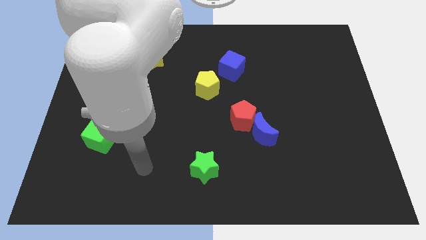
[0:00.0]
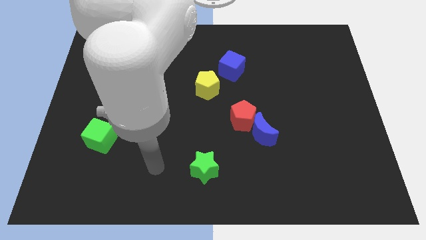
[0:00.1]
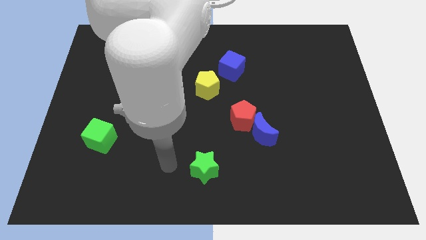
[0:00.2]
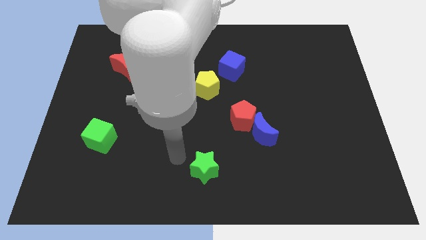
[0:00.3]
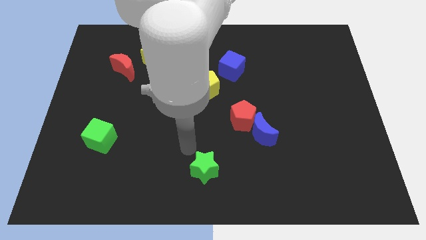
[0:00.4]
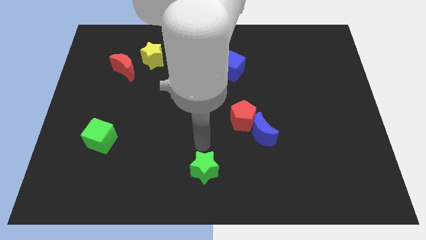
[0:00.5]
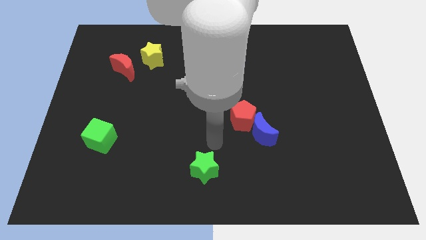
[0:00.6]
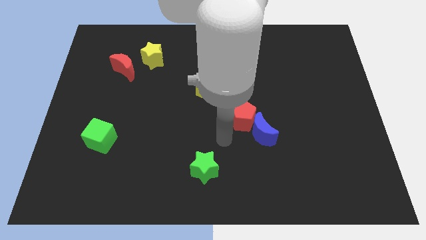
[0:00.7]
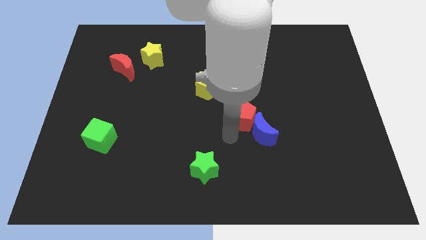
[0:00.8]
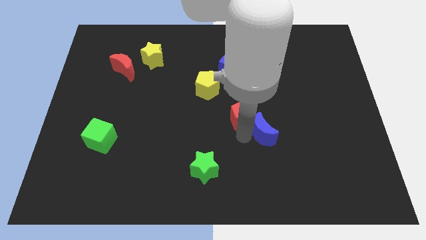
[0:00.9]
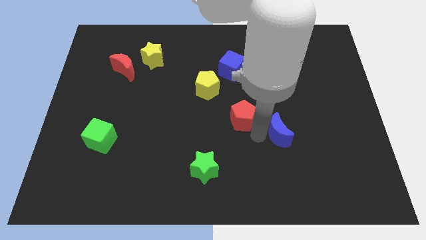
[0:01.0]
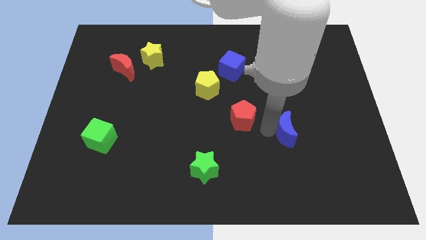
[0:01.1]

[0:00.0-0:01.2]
pull the red pentagon apart from the blue moon

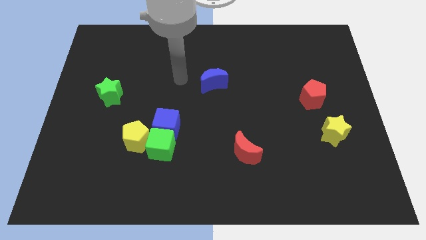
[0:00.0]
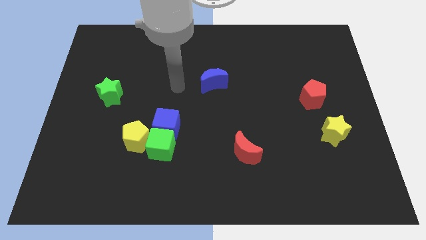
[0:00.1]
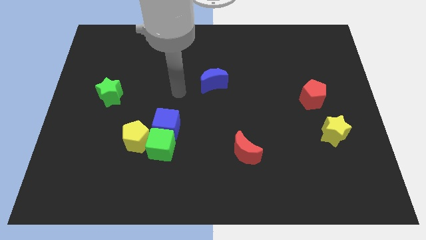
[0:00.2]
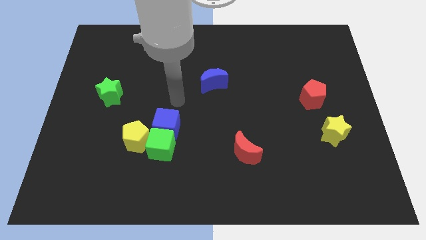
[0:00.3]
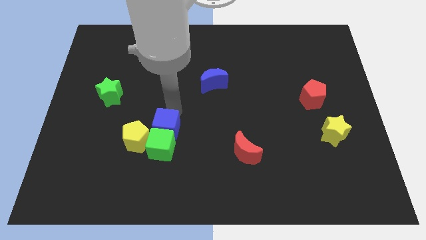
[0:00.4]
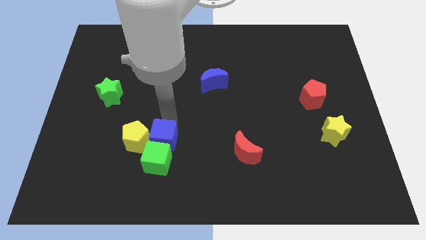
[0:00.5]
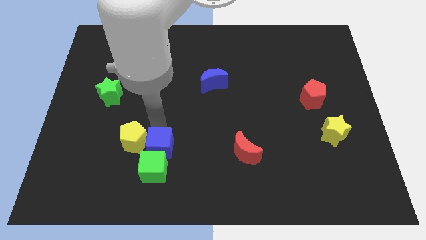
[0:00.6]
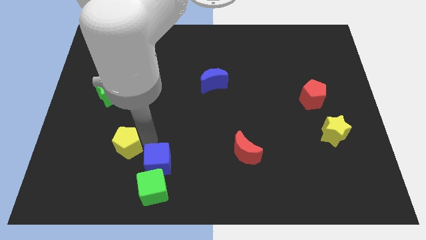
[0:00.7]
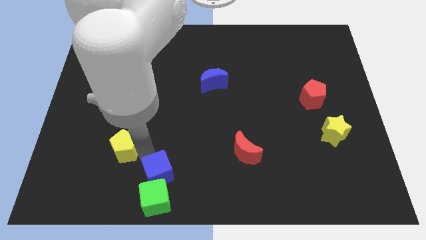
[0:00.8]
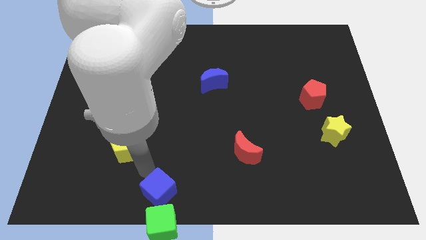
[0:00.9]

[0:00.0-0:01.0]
pull the green cube apart from the blue cube and yellow pentagon

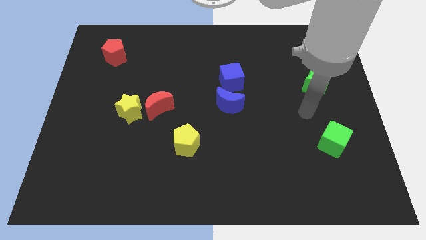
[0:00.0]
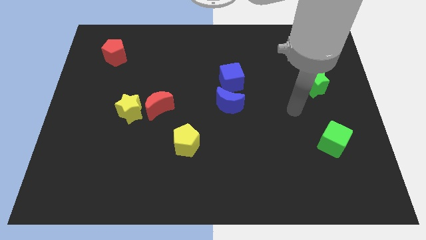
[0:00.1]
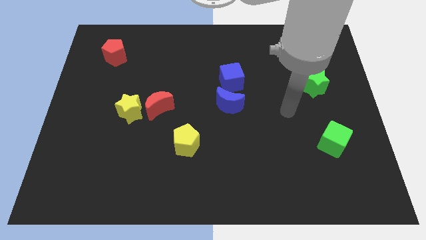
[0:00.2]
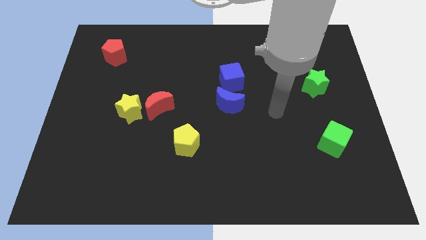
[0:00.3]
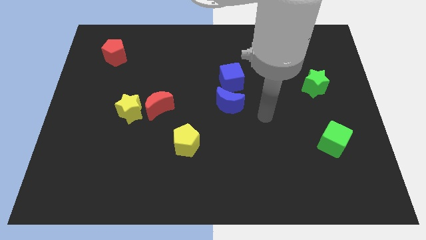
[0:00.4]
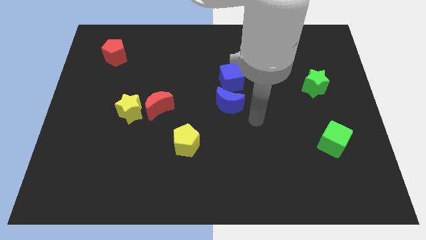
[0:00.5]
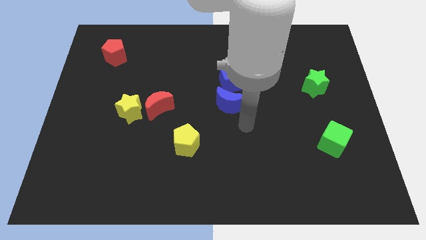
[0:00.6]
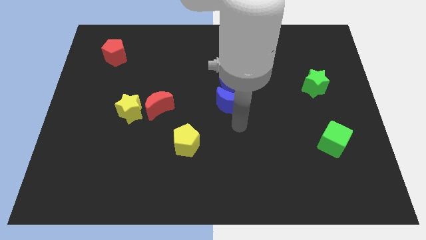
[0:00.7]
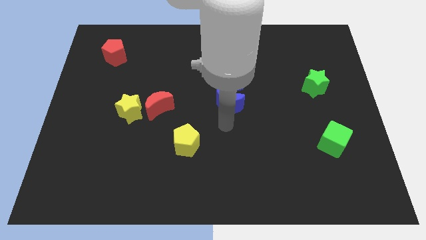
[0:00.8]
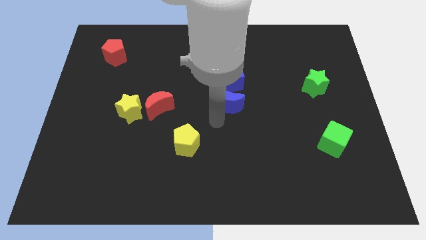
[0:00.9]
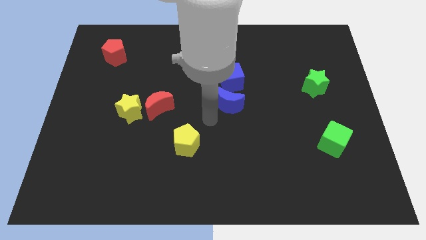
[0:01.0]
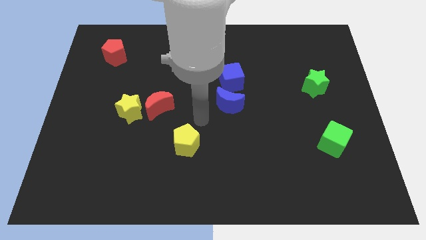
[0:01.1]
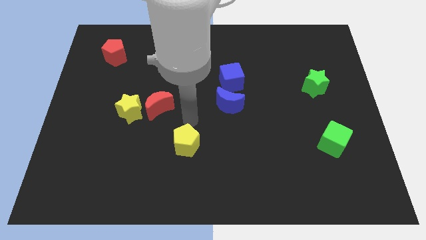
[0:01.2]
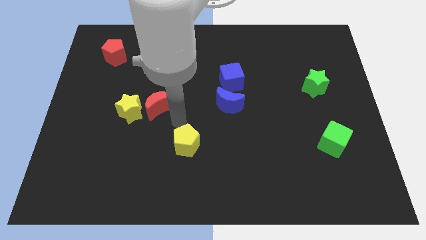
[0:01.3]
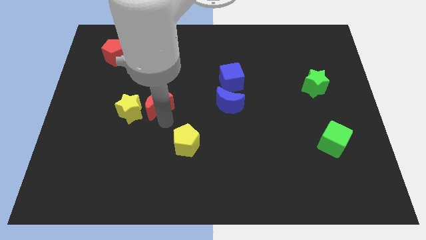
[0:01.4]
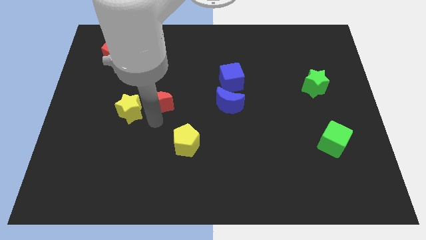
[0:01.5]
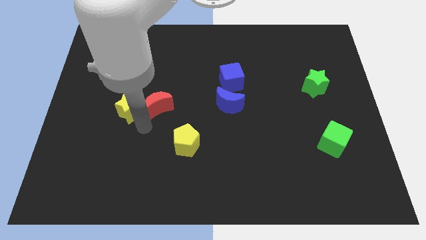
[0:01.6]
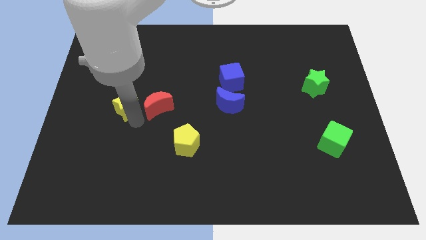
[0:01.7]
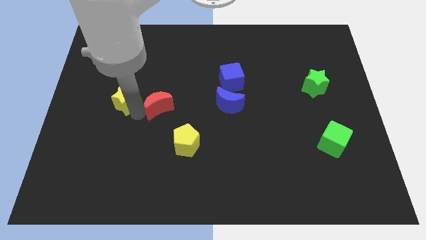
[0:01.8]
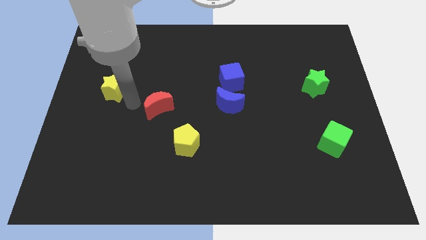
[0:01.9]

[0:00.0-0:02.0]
pull the red moon apart from the yellow star

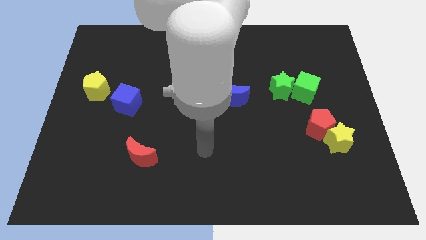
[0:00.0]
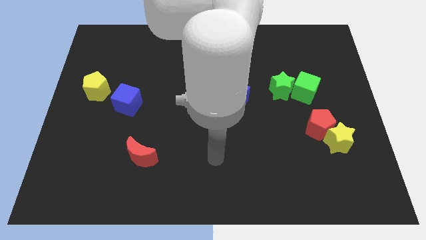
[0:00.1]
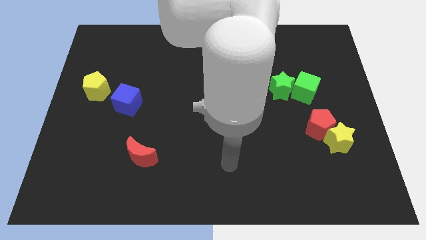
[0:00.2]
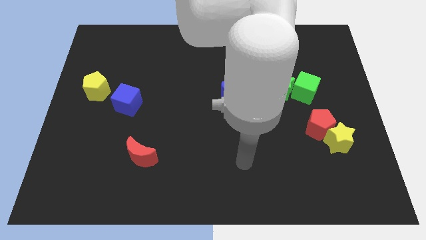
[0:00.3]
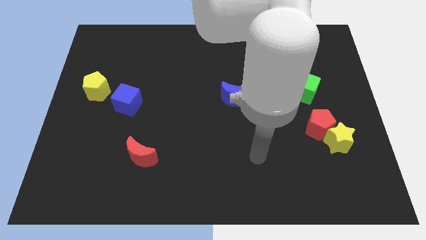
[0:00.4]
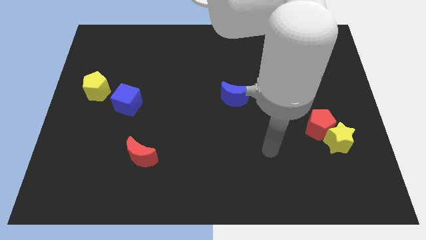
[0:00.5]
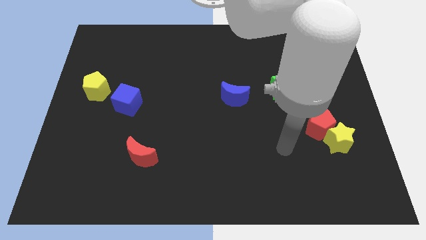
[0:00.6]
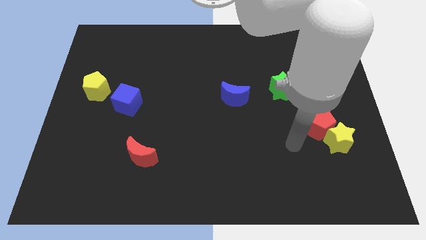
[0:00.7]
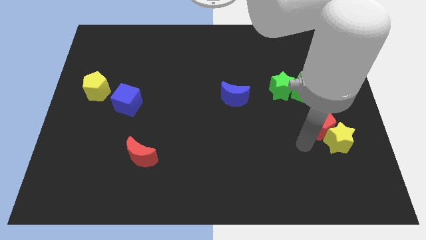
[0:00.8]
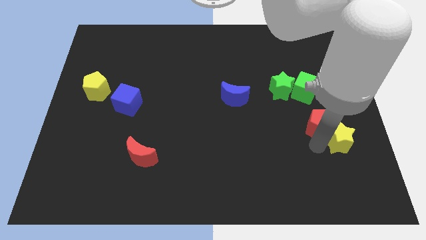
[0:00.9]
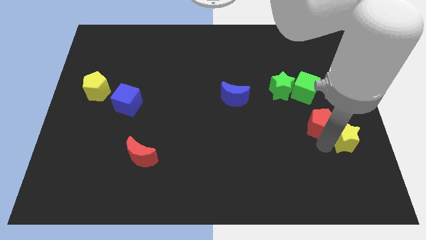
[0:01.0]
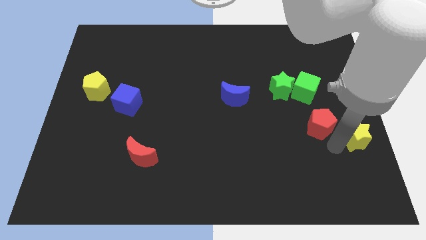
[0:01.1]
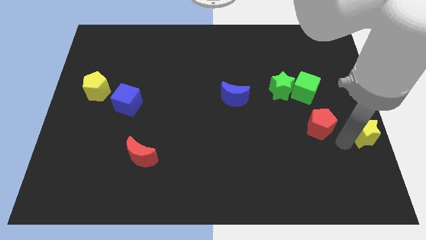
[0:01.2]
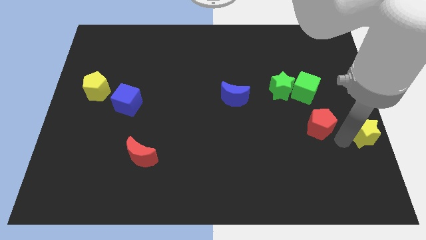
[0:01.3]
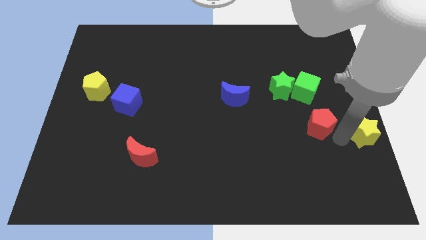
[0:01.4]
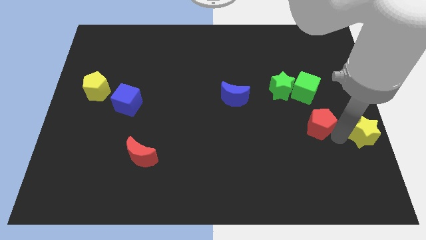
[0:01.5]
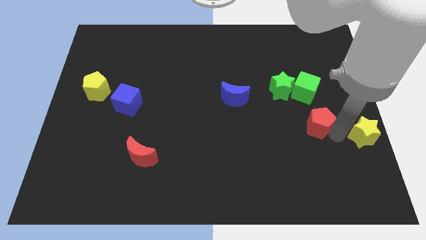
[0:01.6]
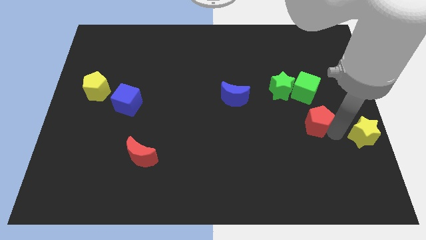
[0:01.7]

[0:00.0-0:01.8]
pull the red pentagon apart from the yellow star

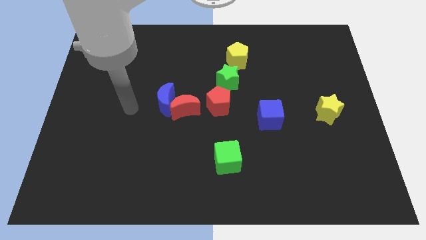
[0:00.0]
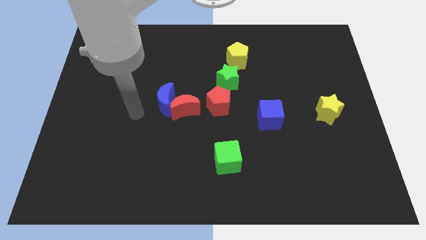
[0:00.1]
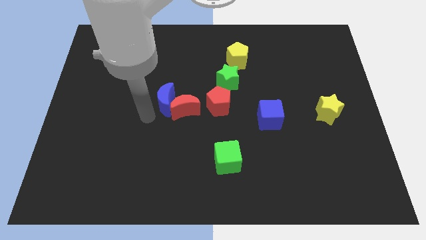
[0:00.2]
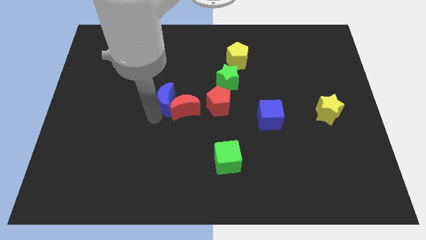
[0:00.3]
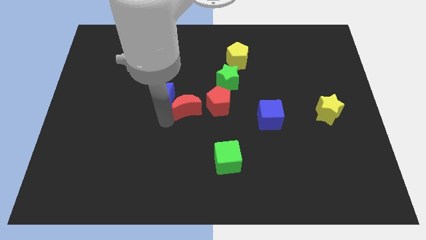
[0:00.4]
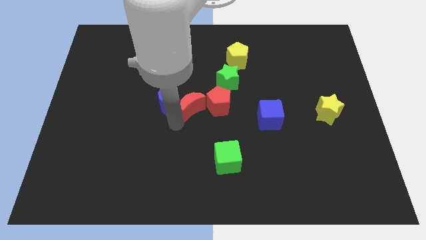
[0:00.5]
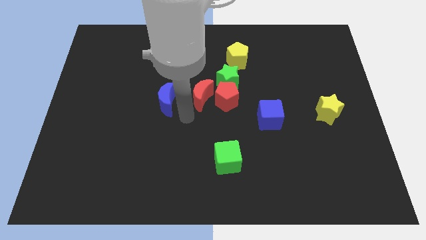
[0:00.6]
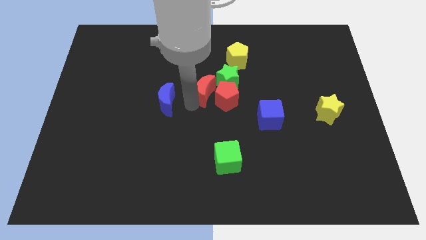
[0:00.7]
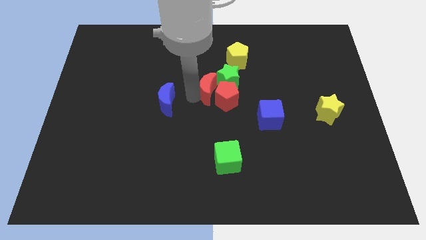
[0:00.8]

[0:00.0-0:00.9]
move the blue moon away from the red moon

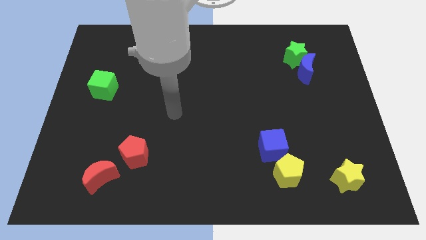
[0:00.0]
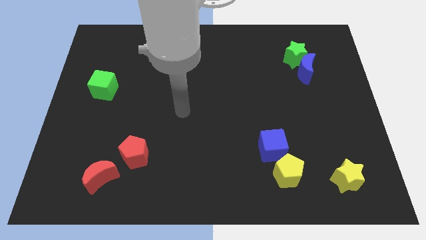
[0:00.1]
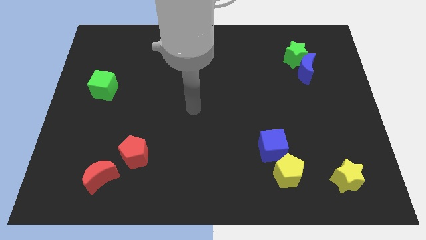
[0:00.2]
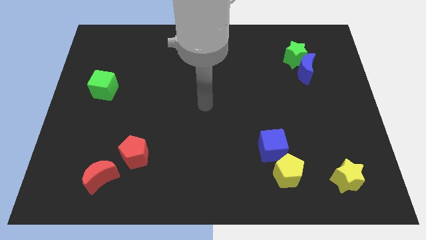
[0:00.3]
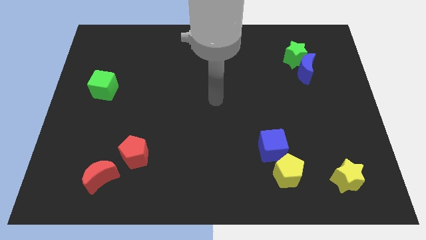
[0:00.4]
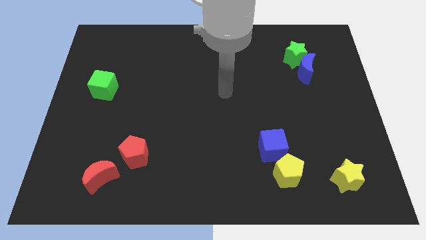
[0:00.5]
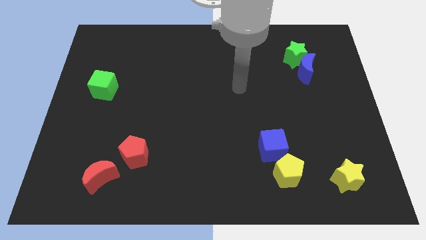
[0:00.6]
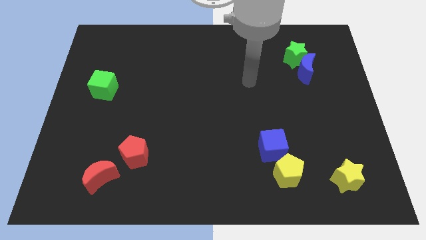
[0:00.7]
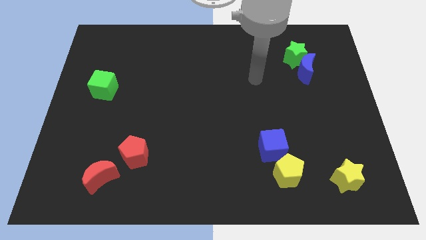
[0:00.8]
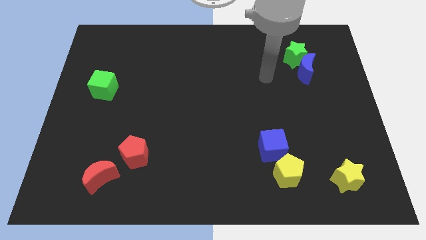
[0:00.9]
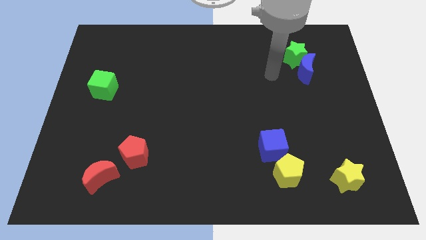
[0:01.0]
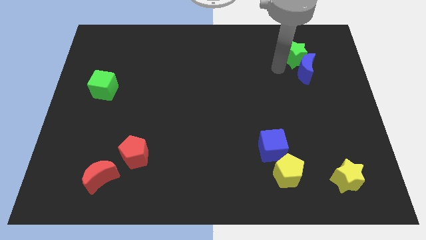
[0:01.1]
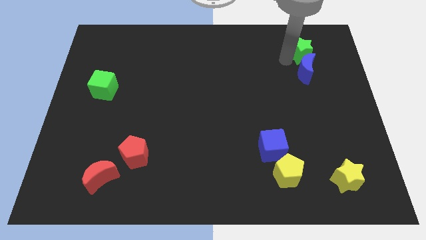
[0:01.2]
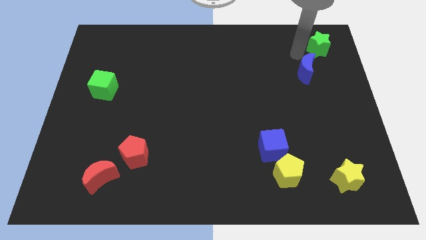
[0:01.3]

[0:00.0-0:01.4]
separate the blue moon from the green star

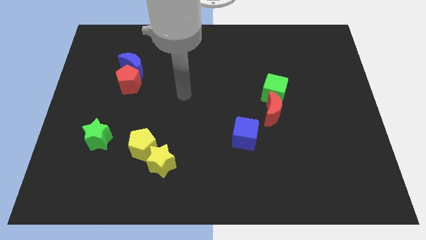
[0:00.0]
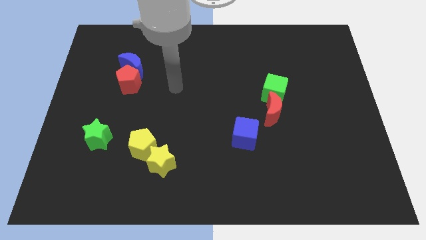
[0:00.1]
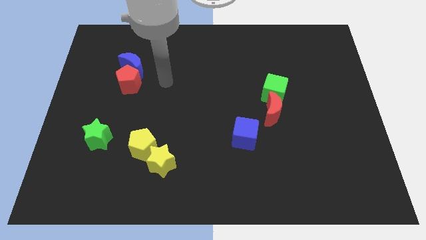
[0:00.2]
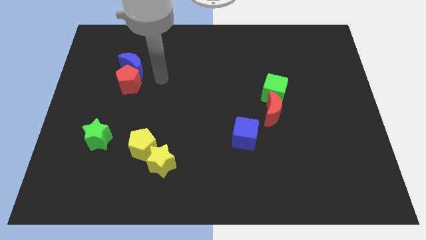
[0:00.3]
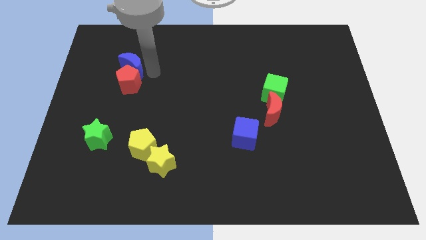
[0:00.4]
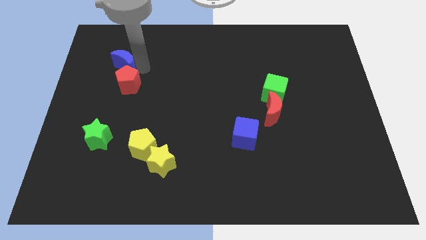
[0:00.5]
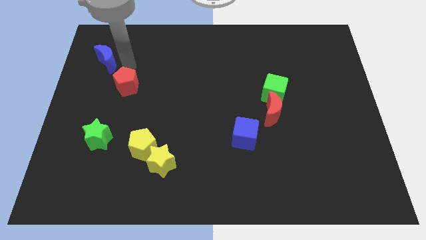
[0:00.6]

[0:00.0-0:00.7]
move the red pentagon away from the blue moon

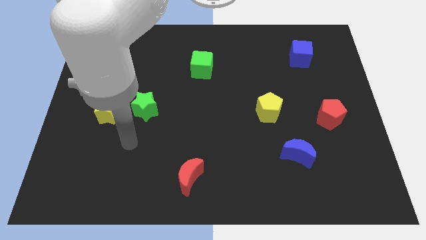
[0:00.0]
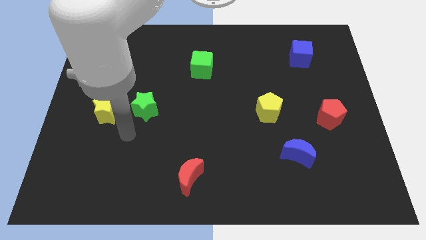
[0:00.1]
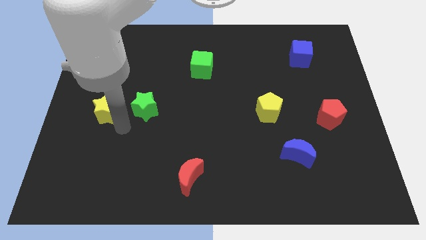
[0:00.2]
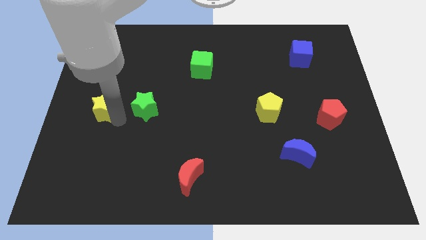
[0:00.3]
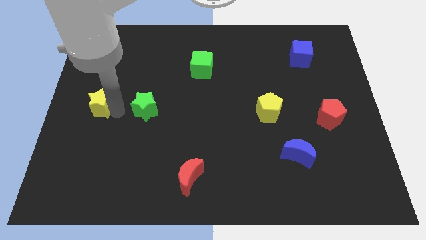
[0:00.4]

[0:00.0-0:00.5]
separate the green star from the yellow star
